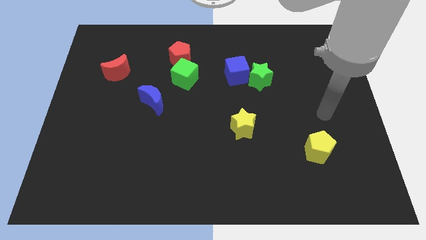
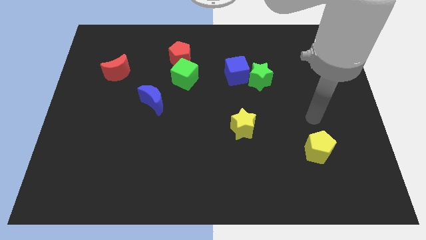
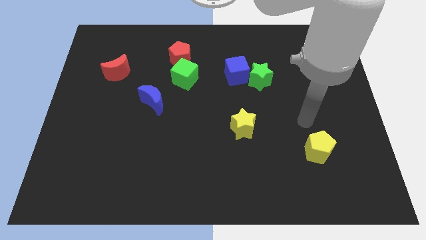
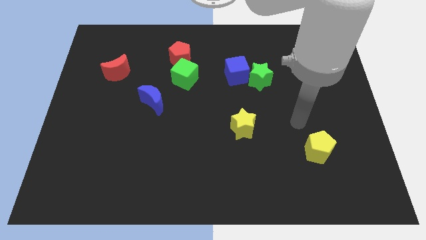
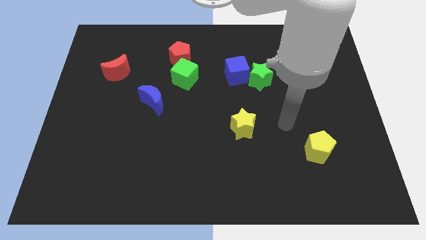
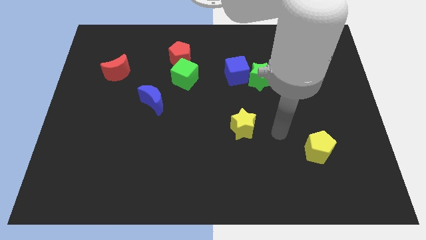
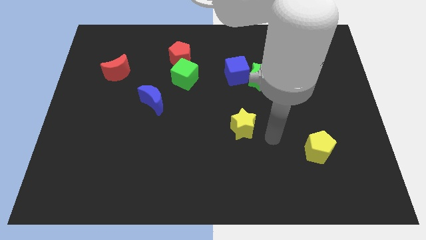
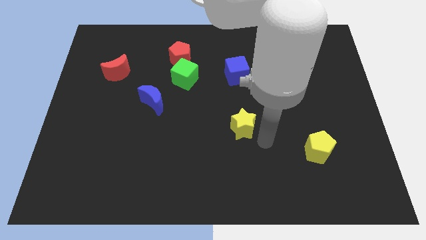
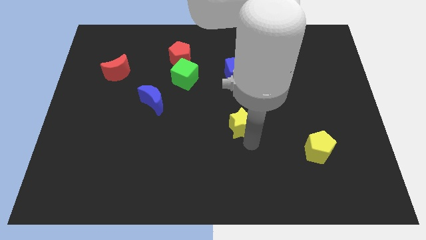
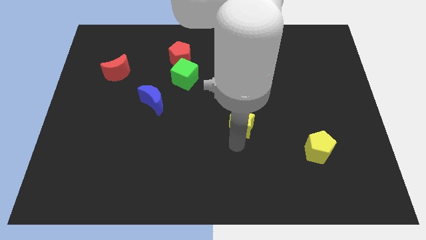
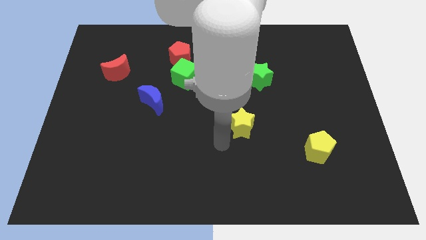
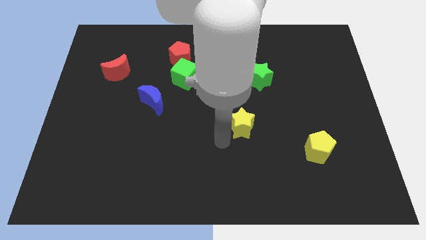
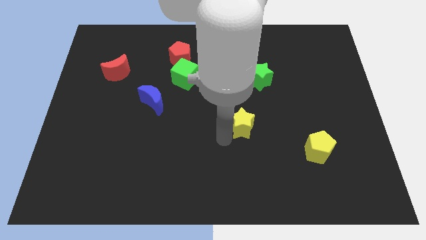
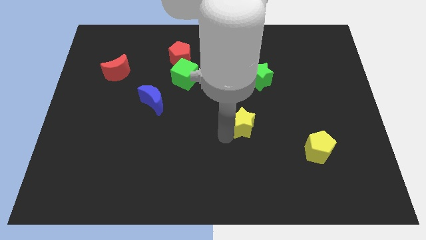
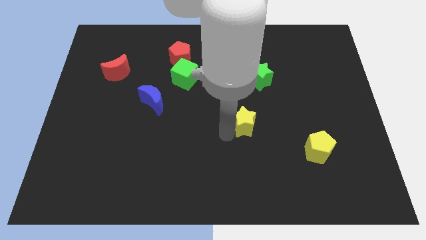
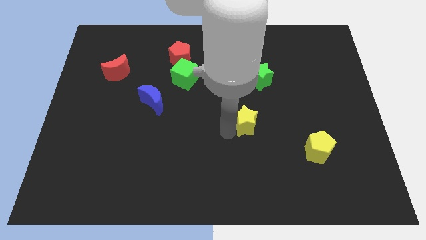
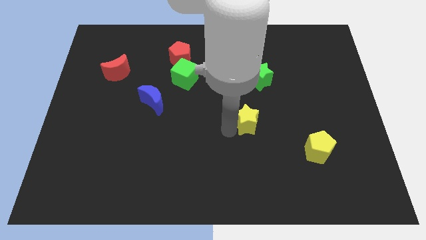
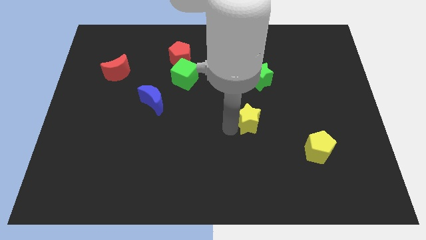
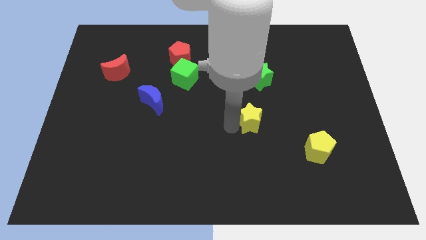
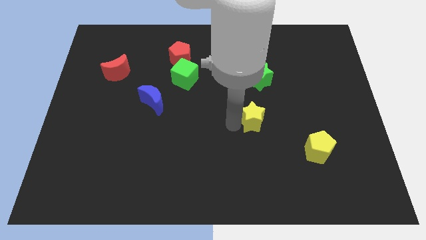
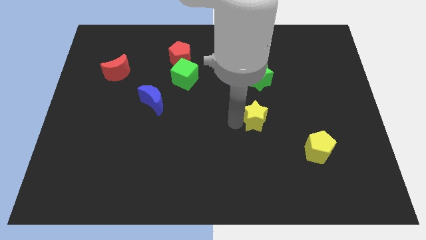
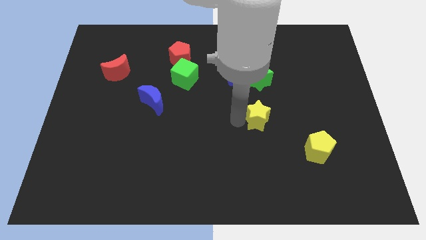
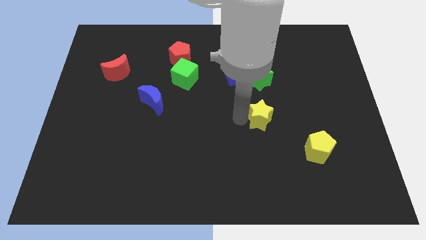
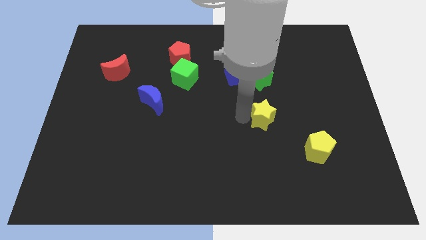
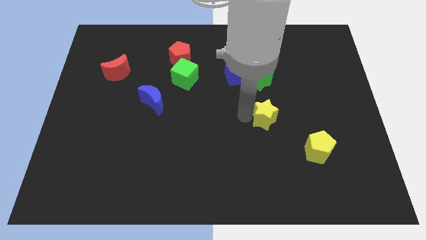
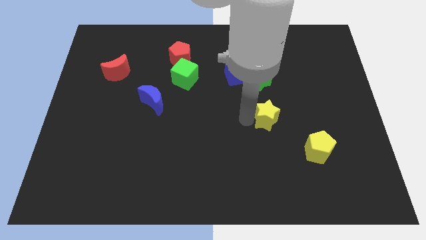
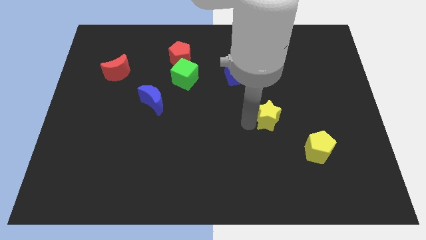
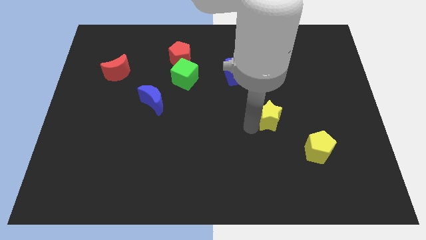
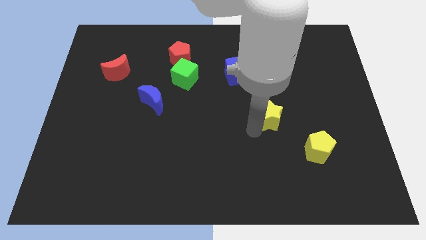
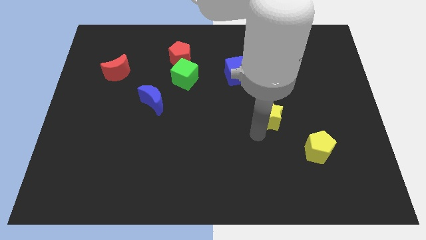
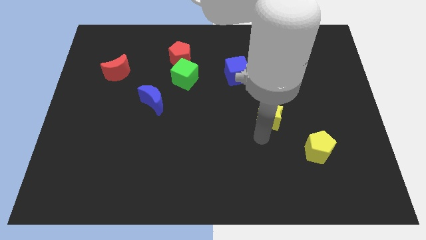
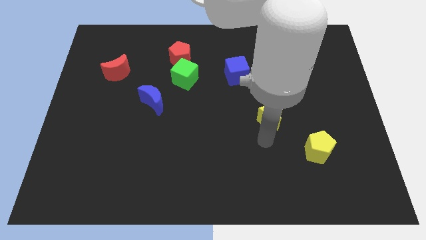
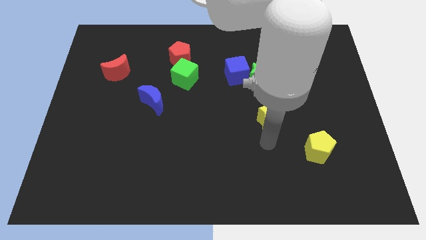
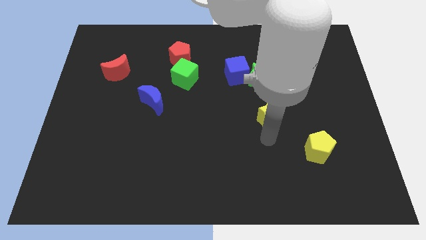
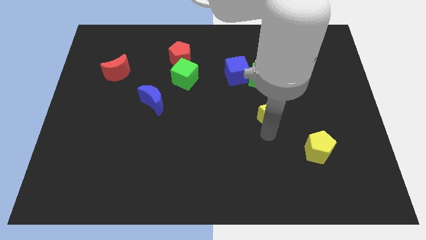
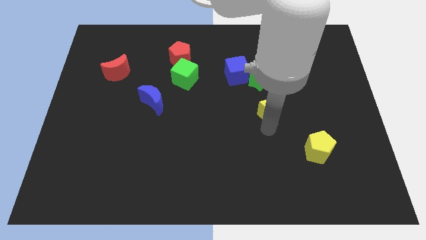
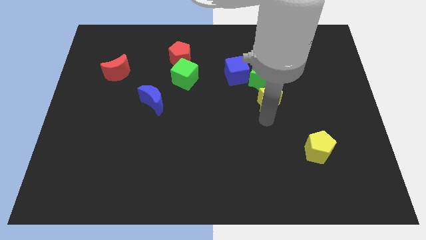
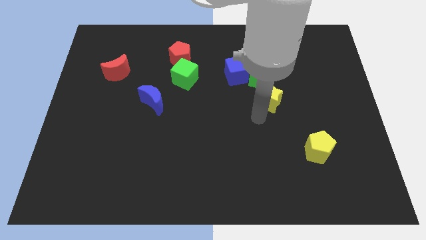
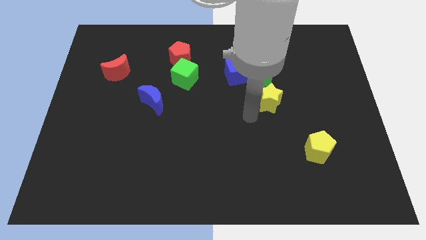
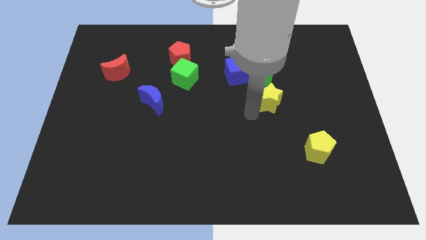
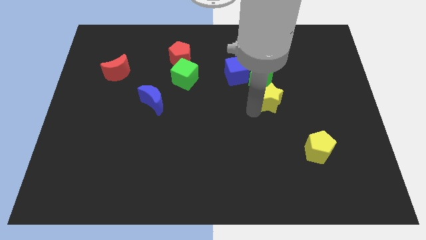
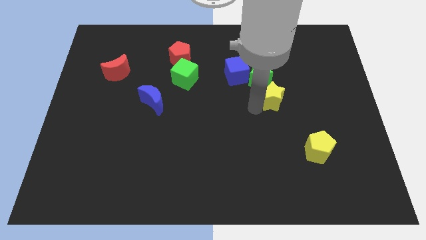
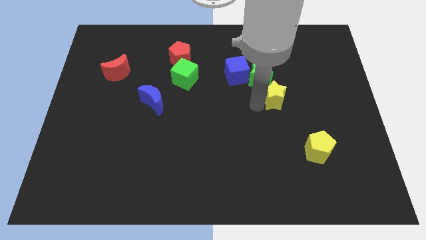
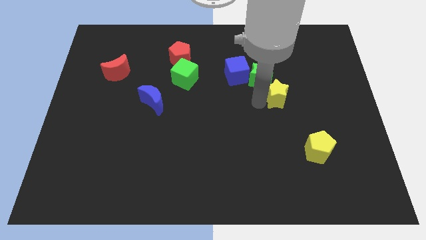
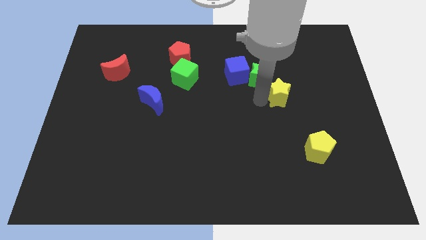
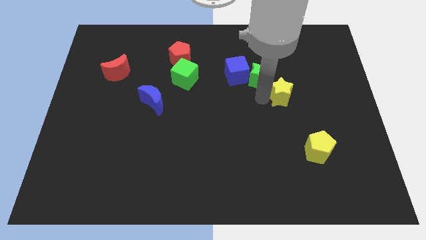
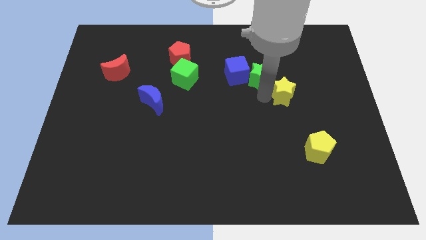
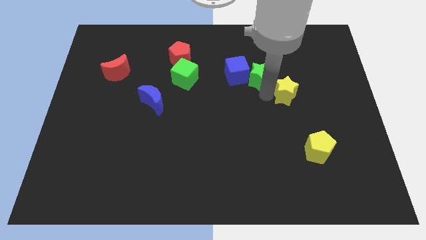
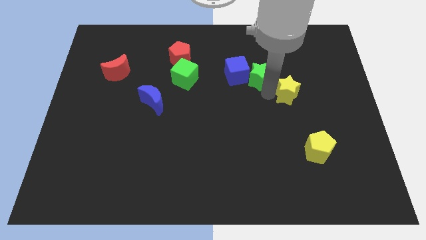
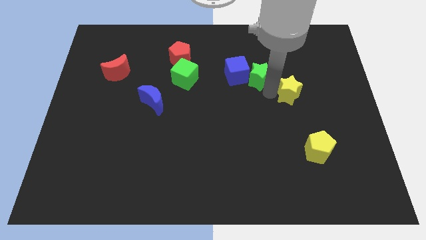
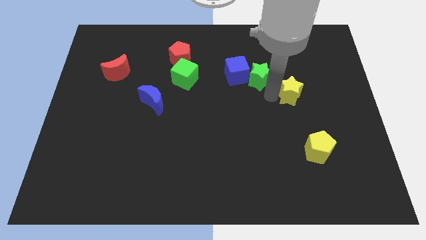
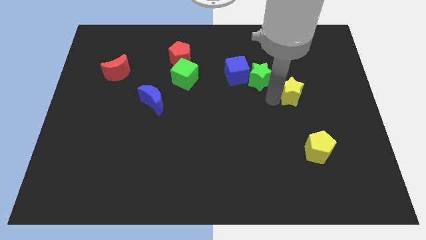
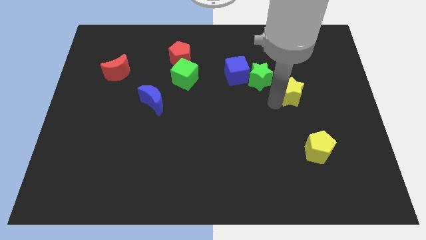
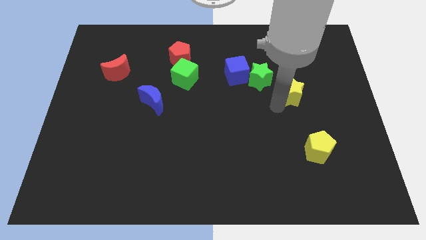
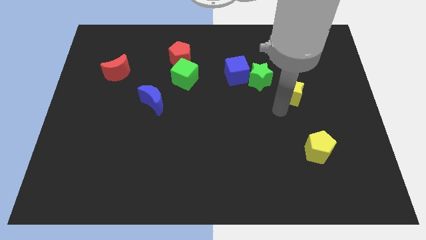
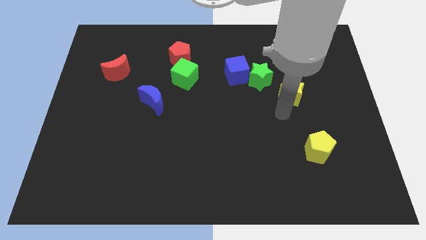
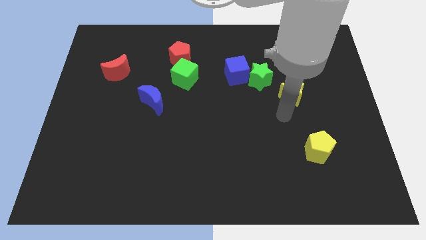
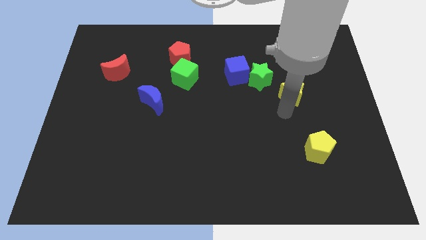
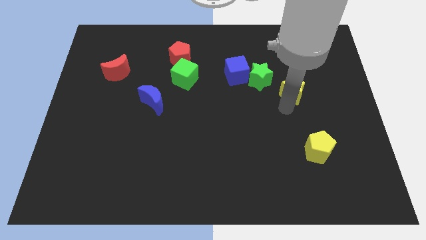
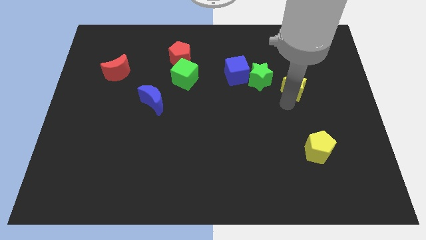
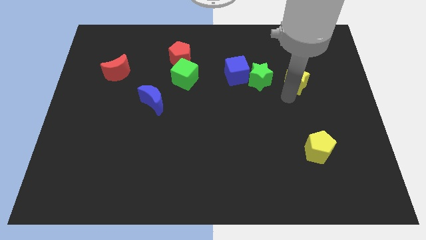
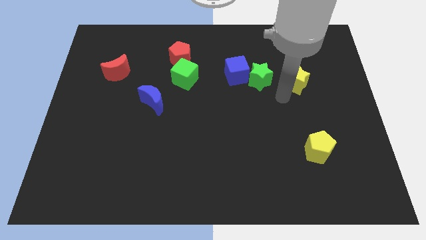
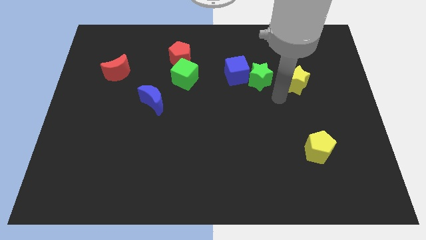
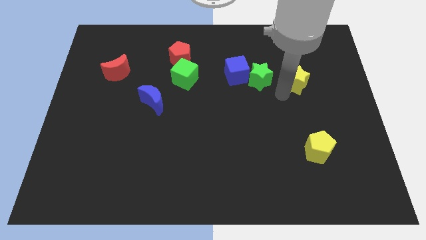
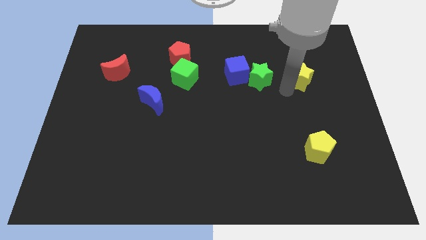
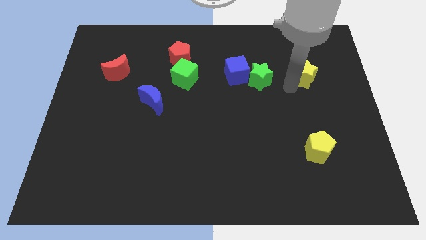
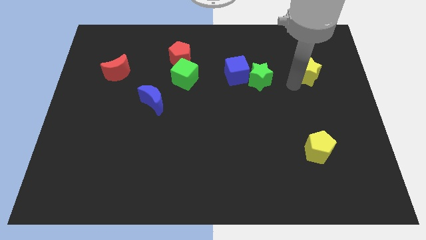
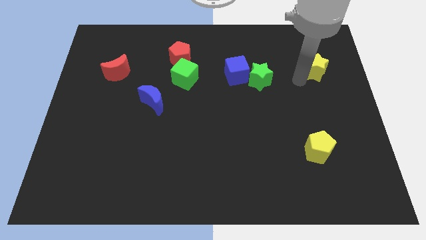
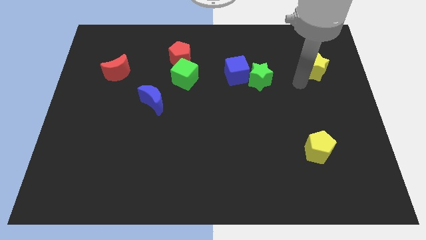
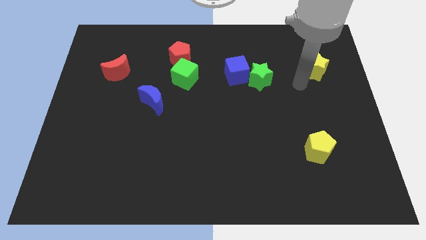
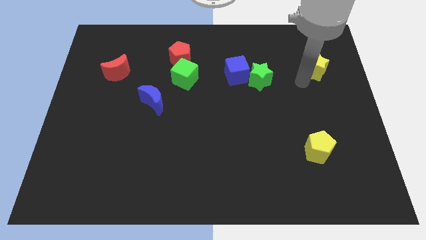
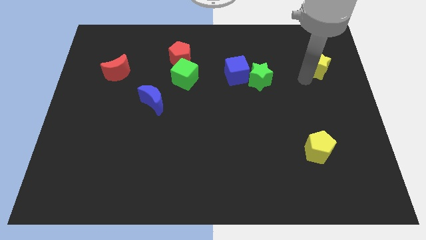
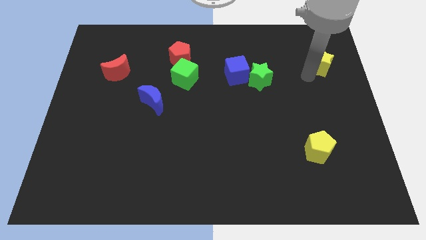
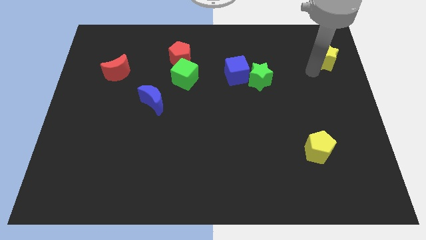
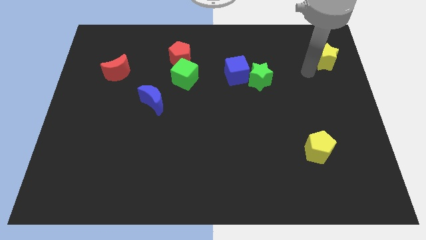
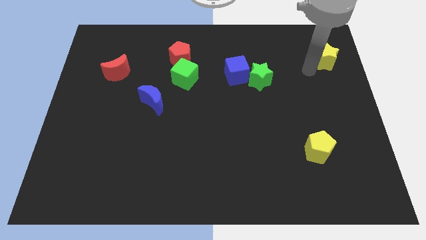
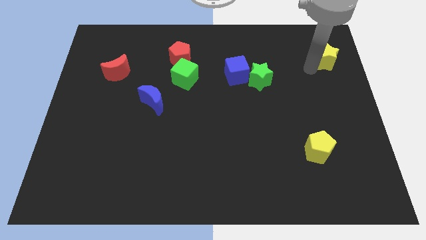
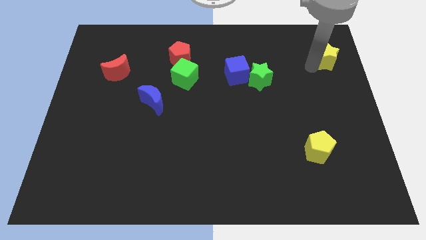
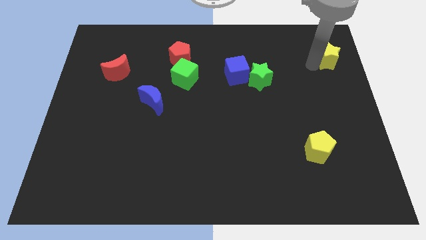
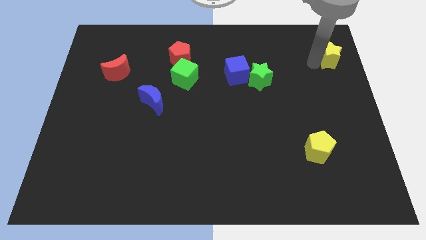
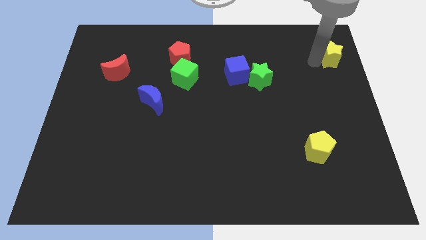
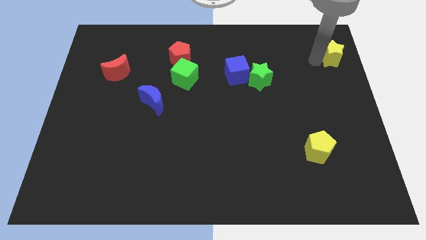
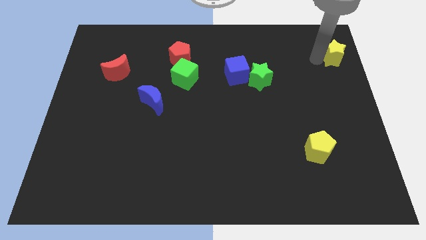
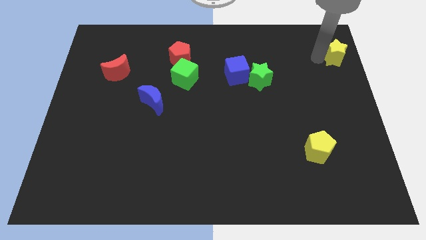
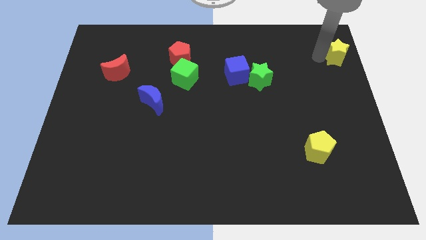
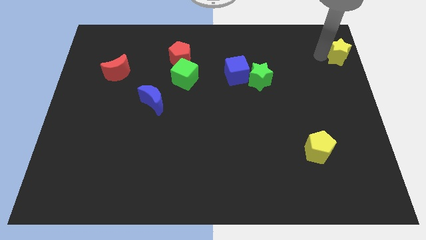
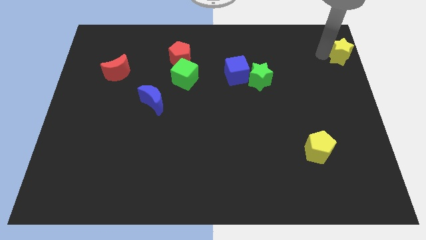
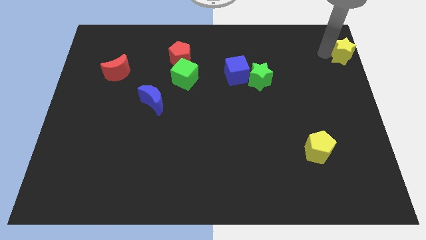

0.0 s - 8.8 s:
slide the yellow star to the upper right corner
